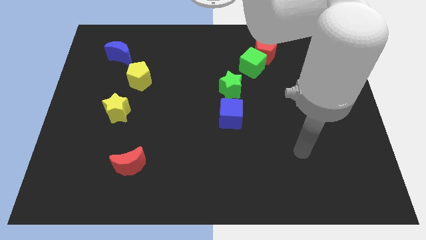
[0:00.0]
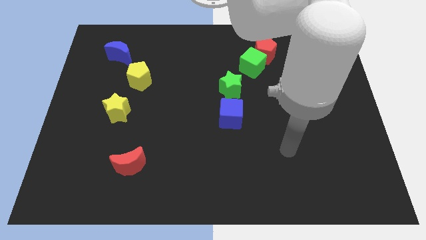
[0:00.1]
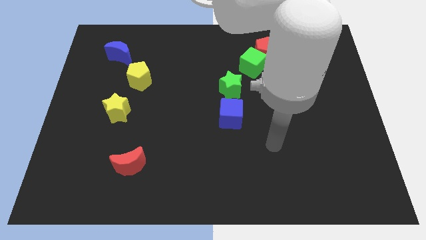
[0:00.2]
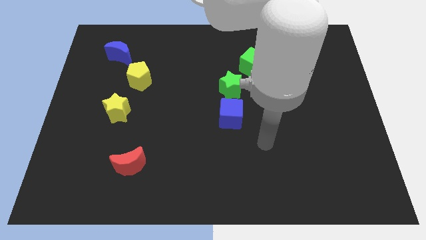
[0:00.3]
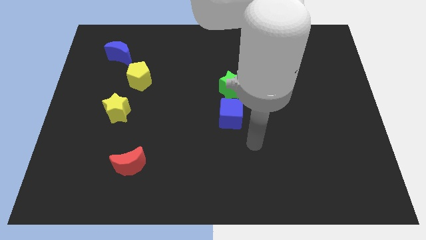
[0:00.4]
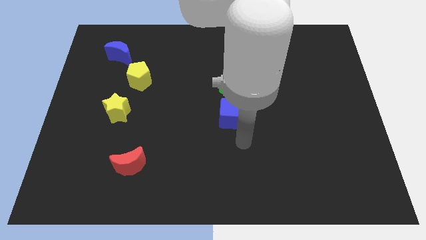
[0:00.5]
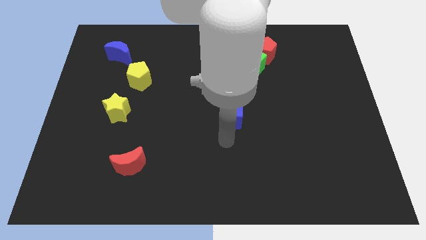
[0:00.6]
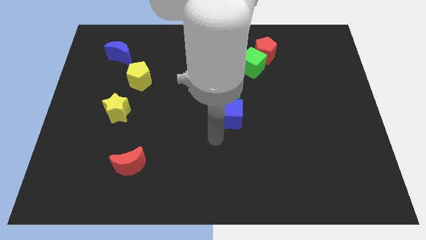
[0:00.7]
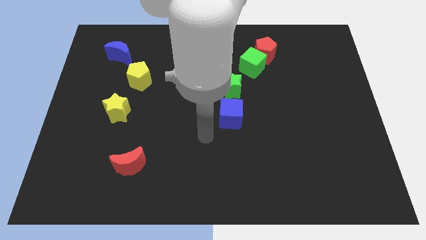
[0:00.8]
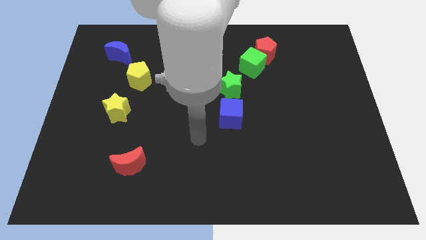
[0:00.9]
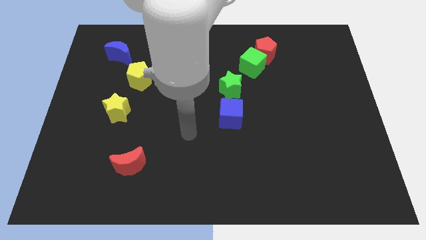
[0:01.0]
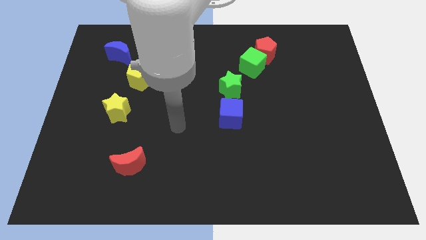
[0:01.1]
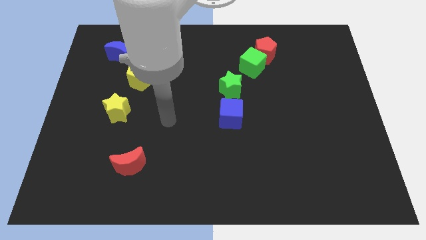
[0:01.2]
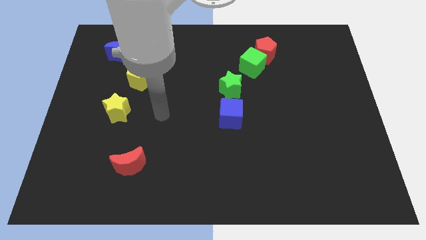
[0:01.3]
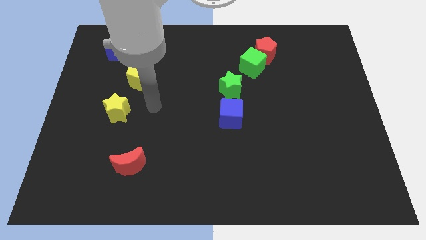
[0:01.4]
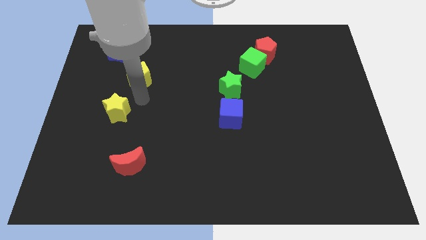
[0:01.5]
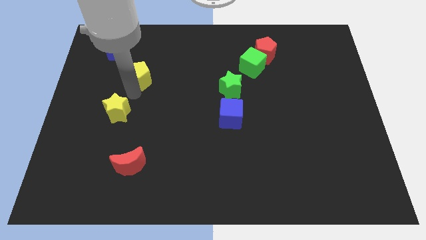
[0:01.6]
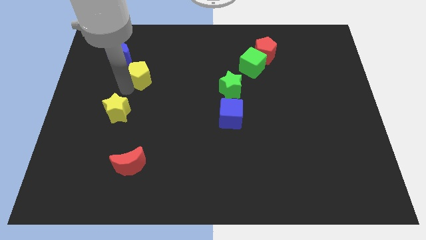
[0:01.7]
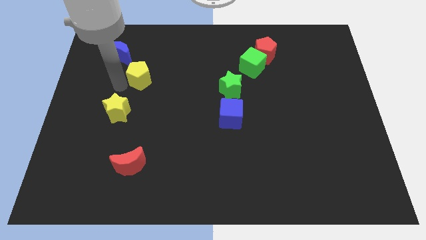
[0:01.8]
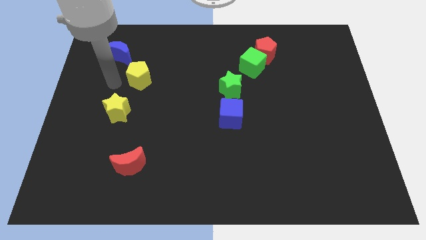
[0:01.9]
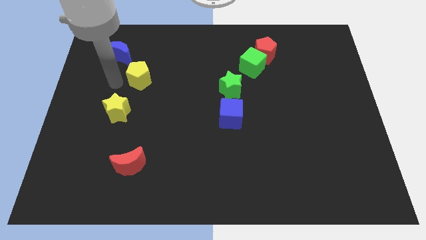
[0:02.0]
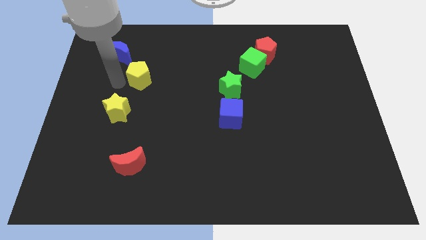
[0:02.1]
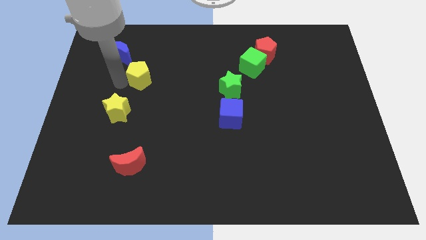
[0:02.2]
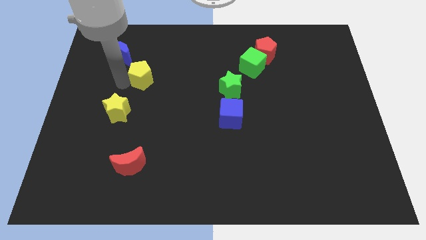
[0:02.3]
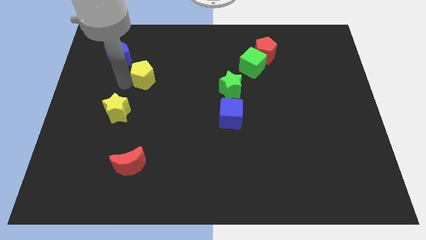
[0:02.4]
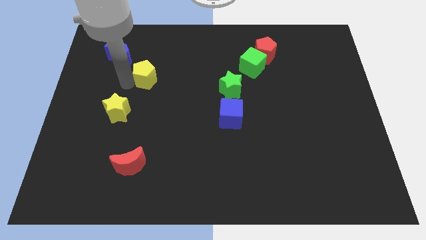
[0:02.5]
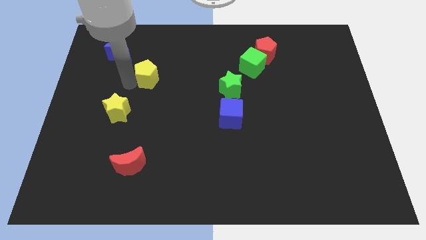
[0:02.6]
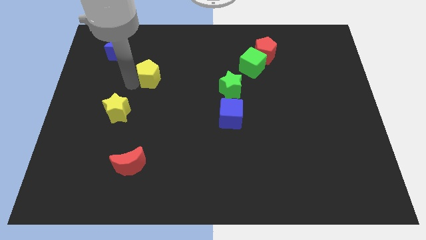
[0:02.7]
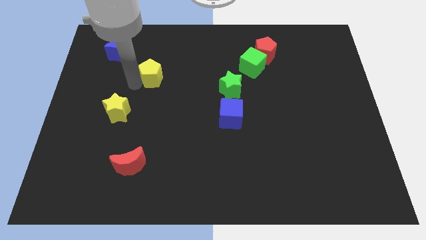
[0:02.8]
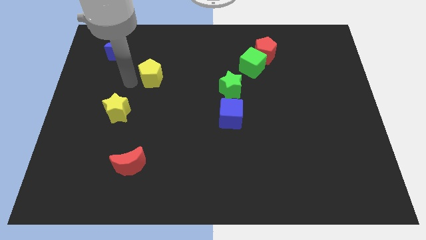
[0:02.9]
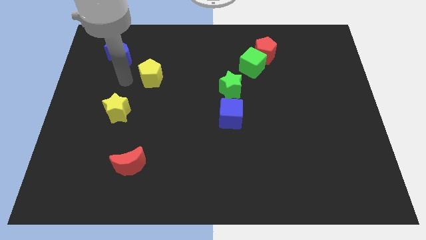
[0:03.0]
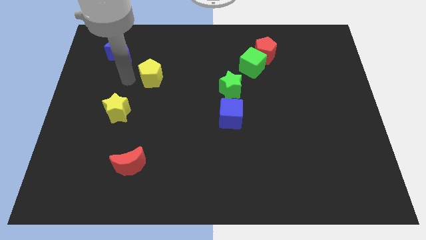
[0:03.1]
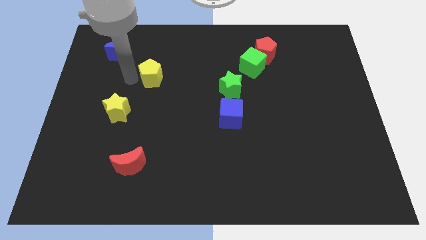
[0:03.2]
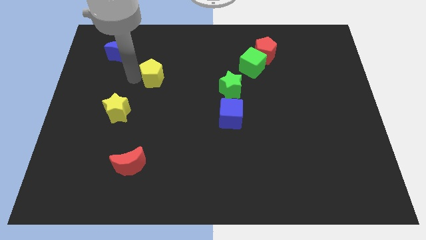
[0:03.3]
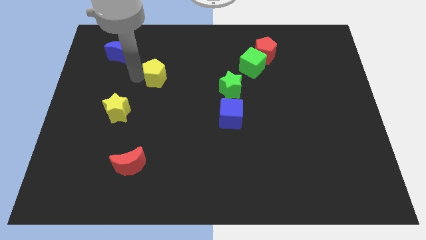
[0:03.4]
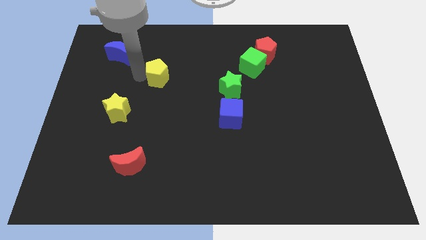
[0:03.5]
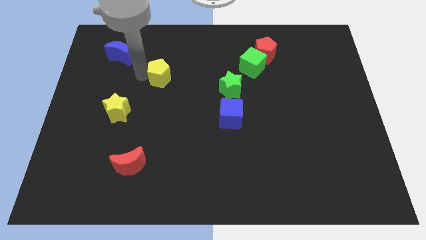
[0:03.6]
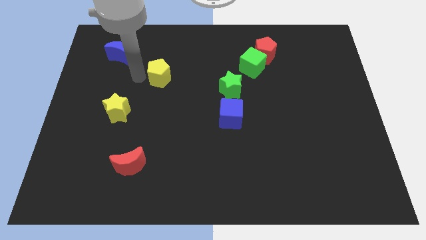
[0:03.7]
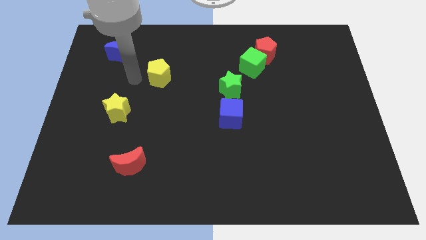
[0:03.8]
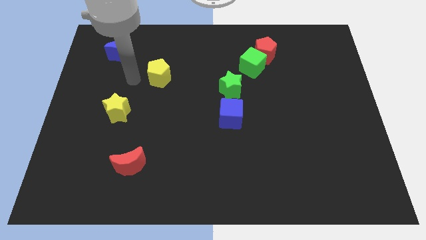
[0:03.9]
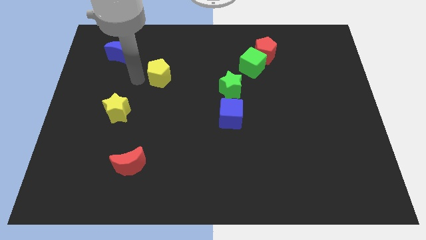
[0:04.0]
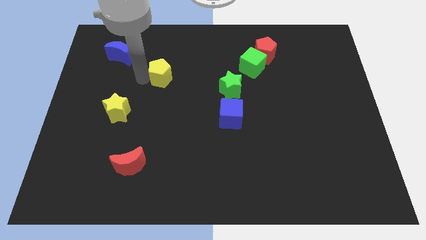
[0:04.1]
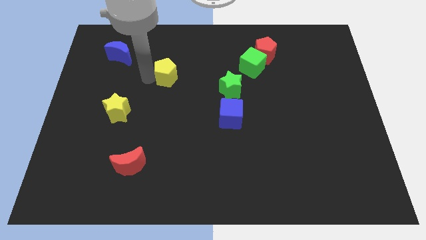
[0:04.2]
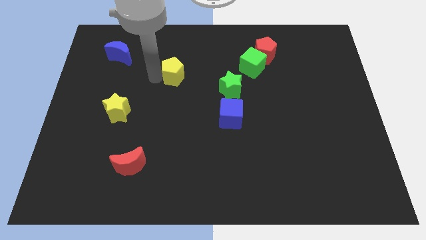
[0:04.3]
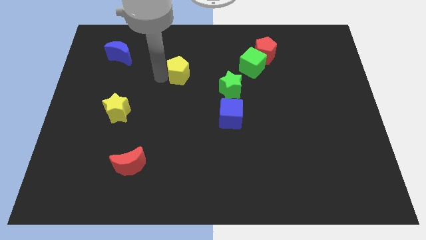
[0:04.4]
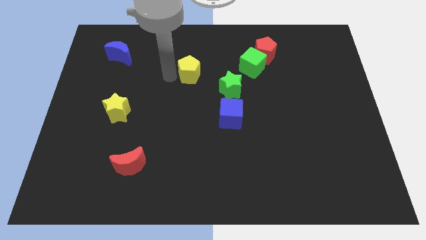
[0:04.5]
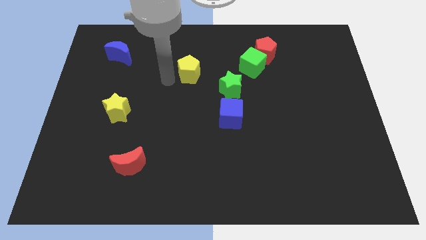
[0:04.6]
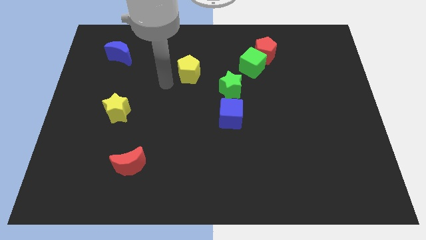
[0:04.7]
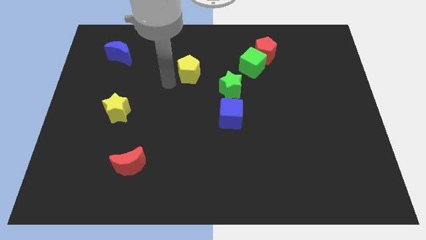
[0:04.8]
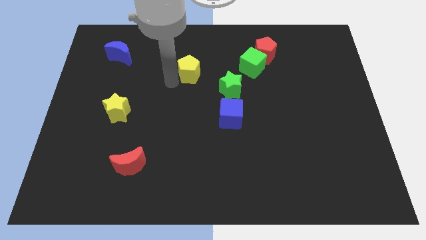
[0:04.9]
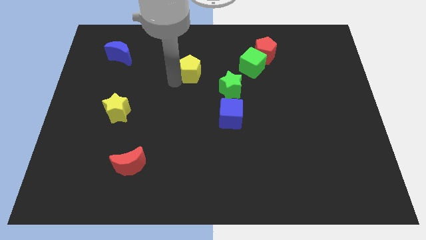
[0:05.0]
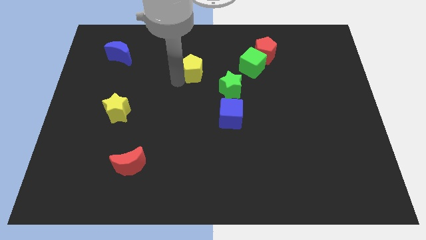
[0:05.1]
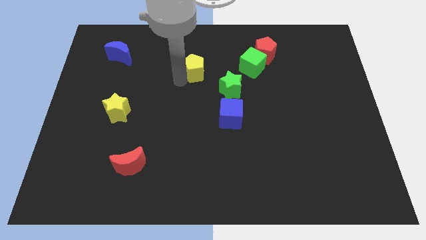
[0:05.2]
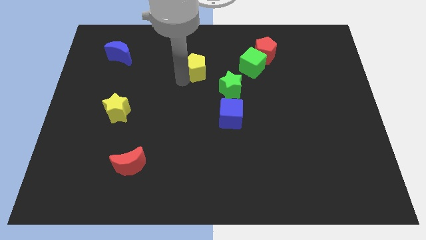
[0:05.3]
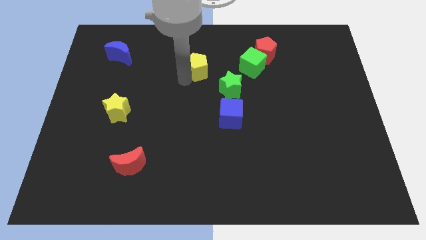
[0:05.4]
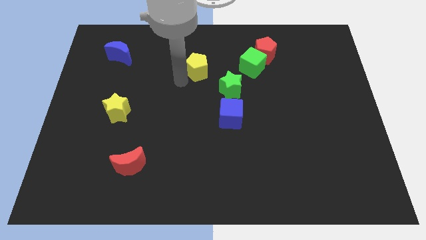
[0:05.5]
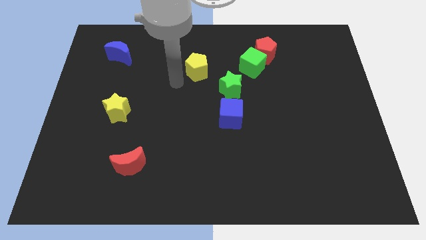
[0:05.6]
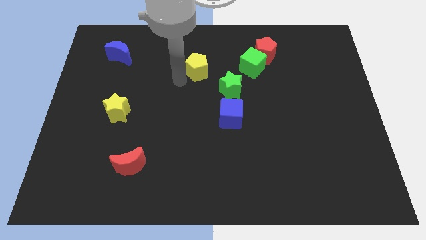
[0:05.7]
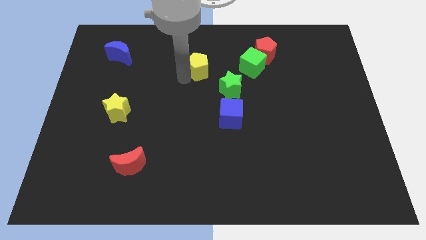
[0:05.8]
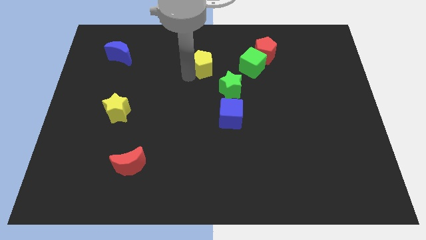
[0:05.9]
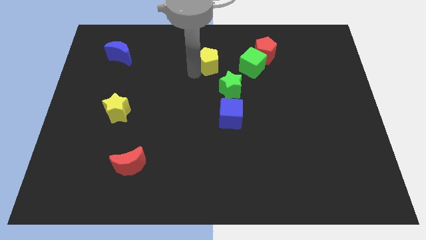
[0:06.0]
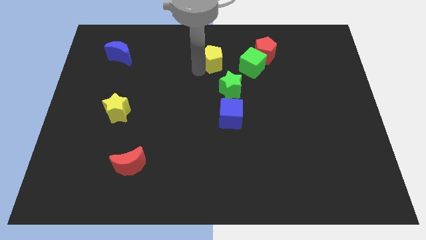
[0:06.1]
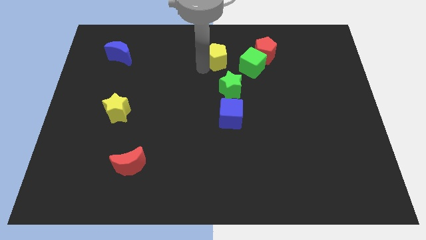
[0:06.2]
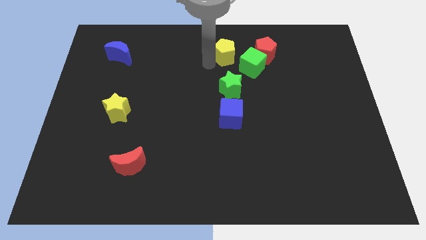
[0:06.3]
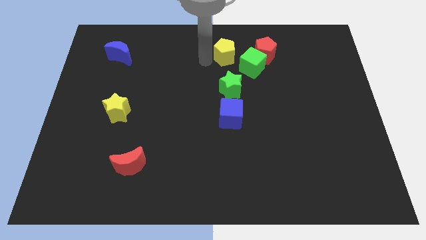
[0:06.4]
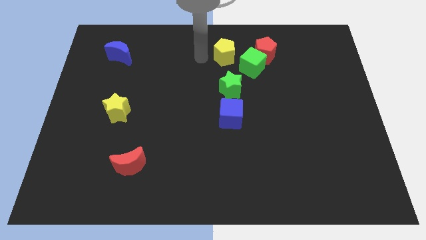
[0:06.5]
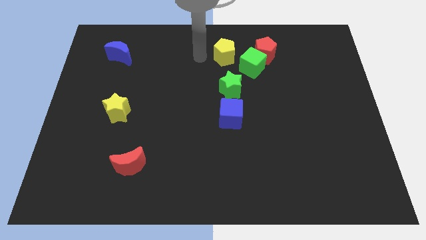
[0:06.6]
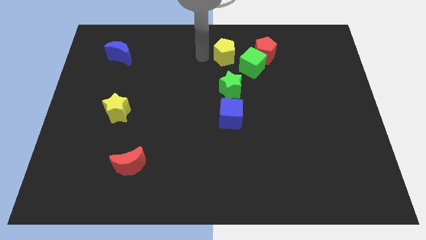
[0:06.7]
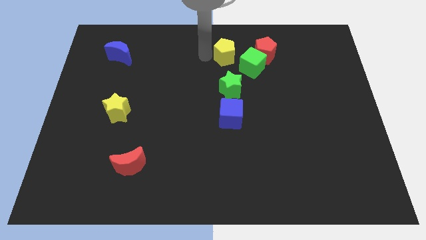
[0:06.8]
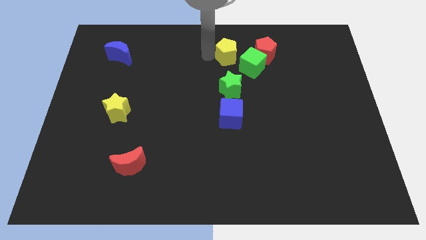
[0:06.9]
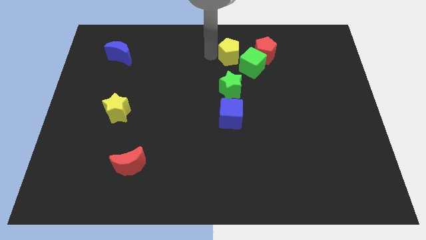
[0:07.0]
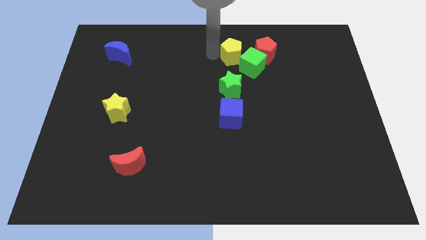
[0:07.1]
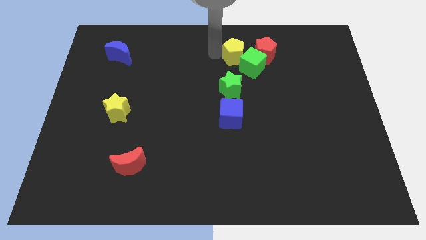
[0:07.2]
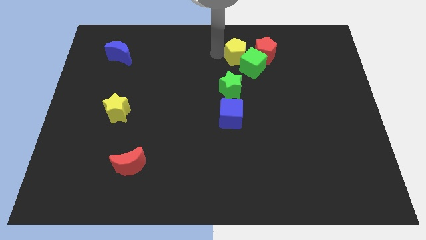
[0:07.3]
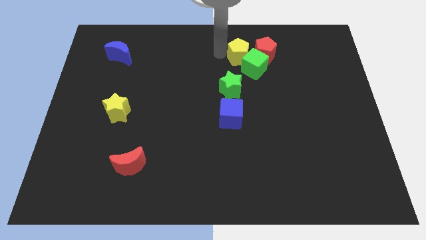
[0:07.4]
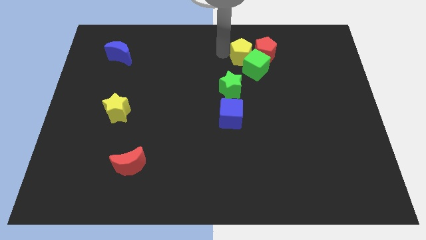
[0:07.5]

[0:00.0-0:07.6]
push the yellow pentagon next to the red pentagon
